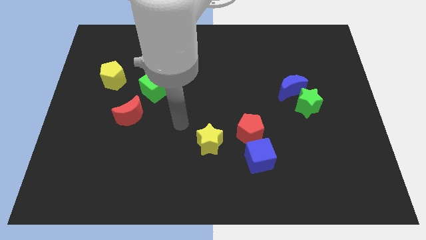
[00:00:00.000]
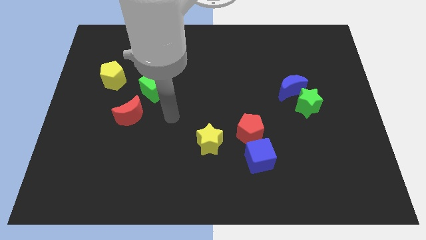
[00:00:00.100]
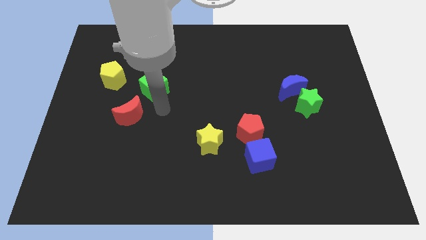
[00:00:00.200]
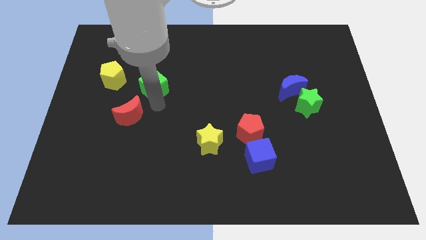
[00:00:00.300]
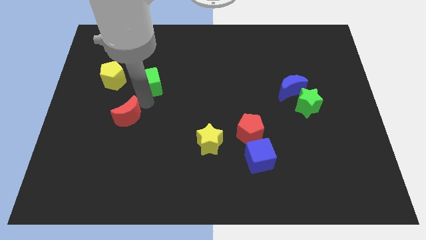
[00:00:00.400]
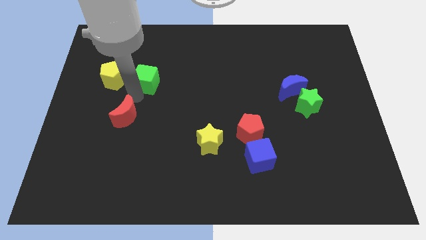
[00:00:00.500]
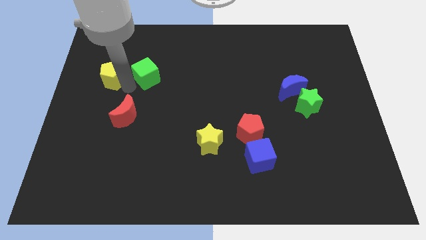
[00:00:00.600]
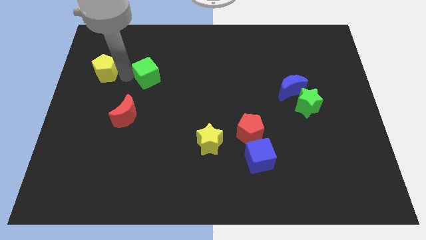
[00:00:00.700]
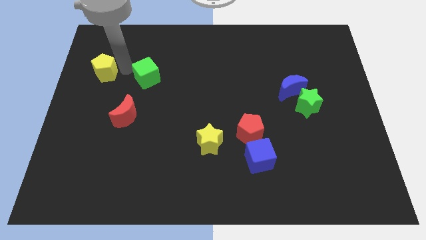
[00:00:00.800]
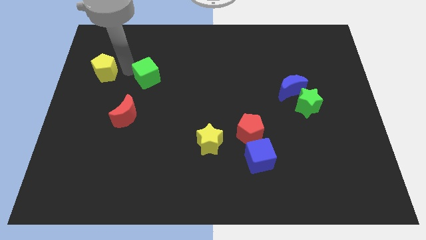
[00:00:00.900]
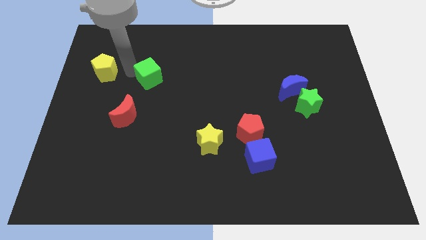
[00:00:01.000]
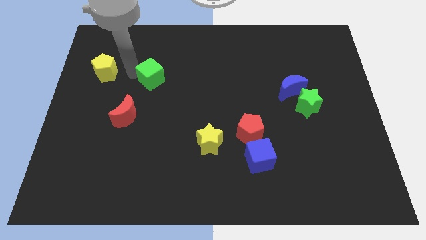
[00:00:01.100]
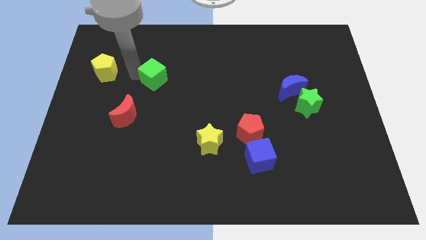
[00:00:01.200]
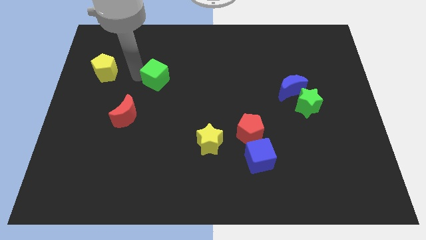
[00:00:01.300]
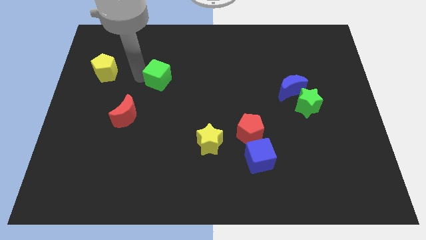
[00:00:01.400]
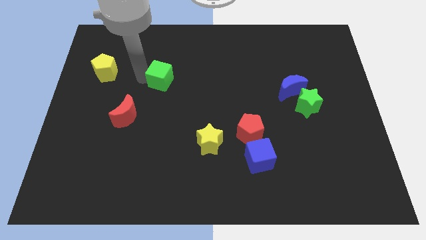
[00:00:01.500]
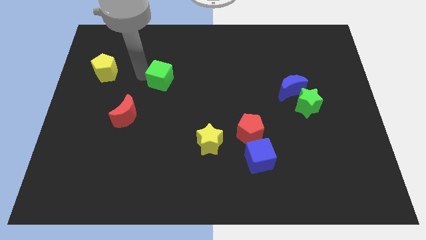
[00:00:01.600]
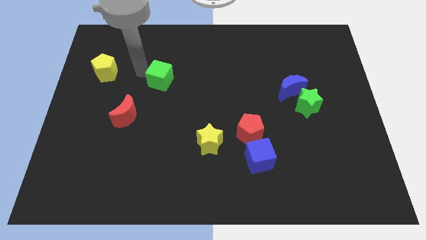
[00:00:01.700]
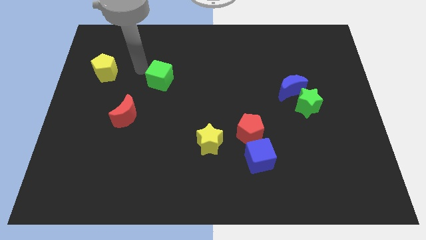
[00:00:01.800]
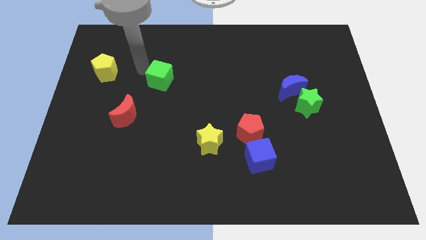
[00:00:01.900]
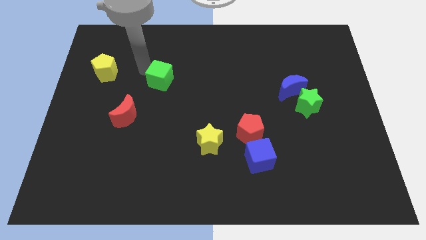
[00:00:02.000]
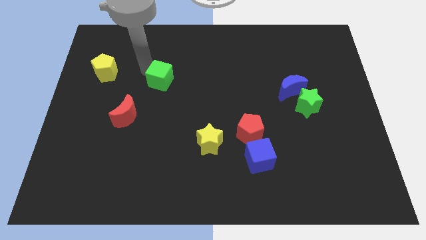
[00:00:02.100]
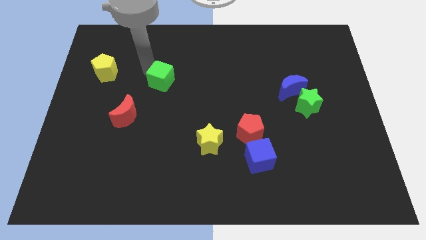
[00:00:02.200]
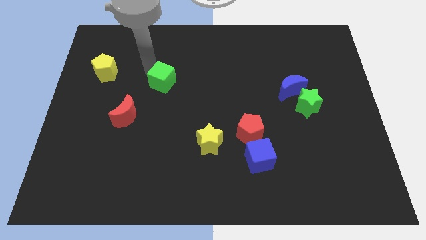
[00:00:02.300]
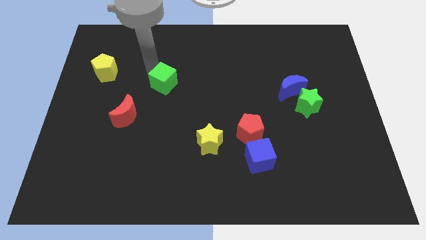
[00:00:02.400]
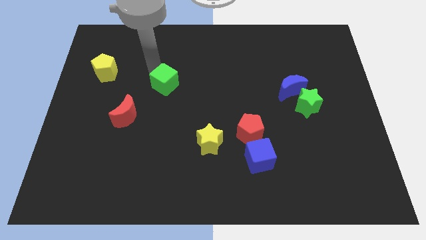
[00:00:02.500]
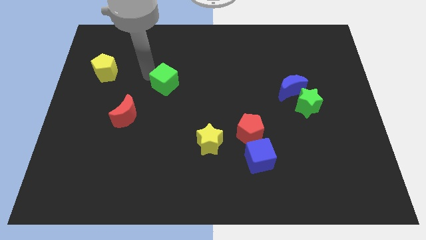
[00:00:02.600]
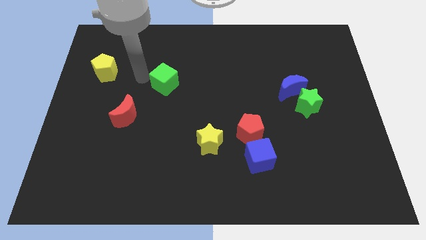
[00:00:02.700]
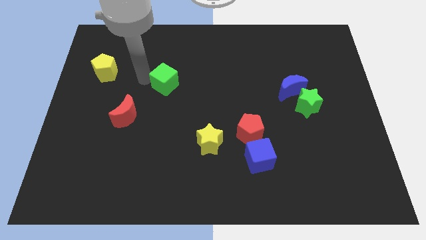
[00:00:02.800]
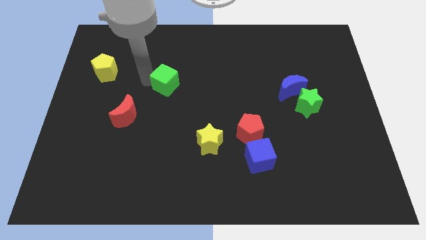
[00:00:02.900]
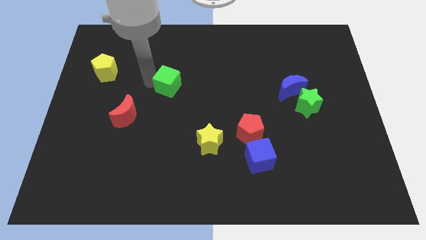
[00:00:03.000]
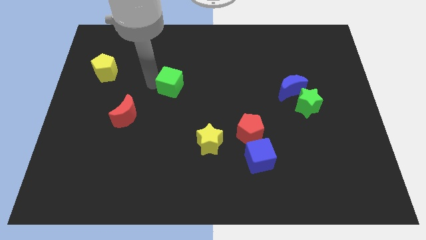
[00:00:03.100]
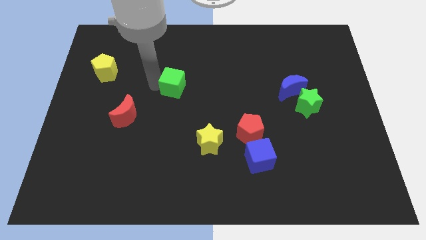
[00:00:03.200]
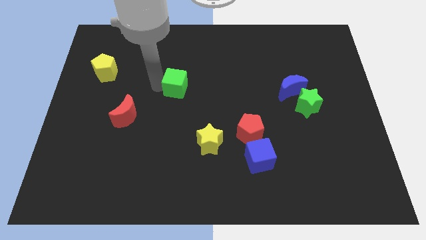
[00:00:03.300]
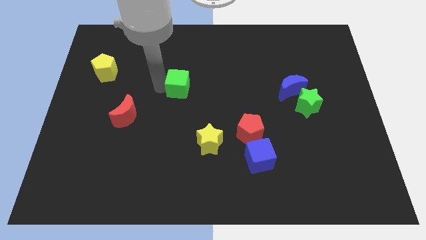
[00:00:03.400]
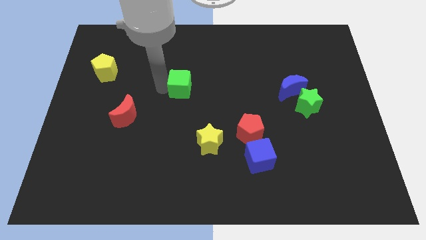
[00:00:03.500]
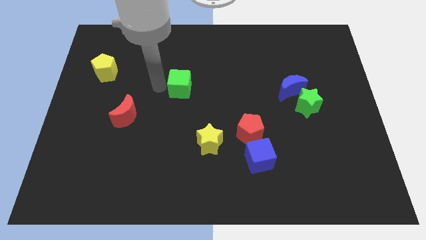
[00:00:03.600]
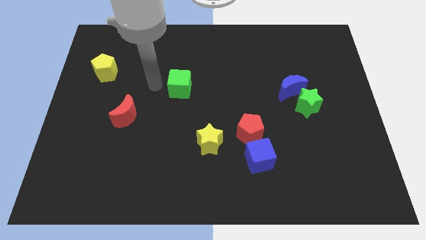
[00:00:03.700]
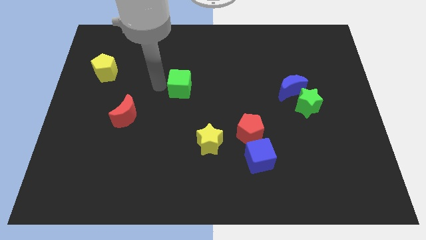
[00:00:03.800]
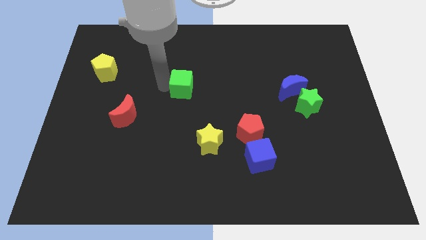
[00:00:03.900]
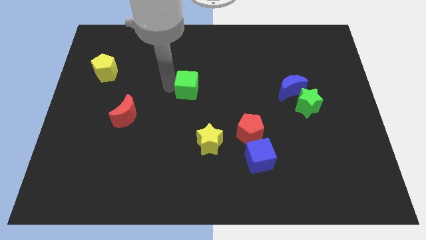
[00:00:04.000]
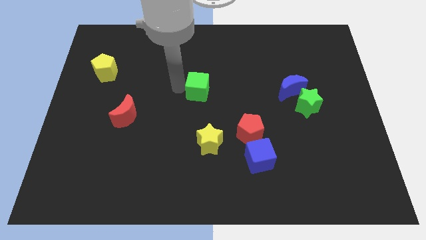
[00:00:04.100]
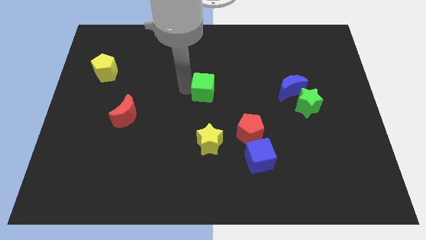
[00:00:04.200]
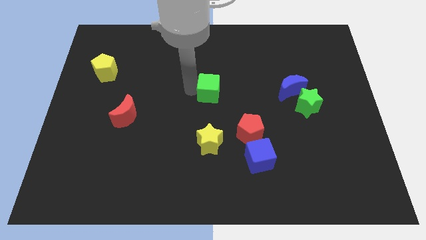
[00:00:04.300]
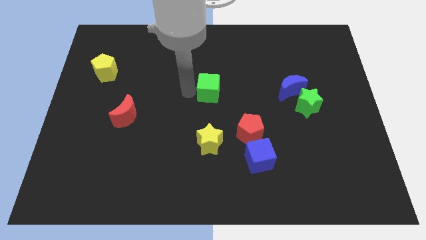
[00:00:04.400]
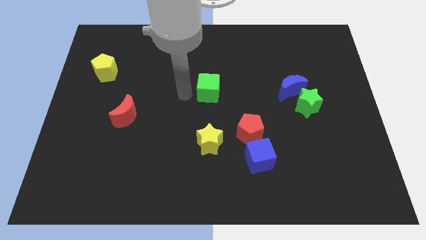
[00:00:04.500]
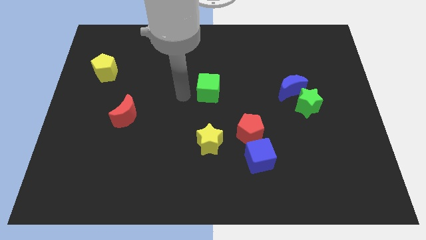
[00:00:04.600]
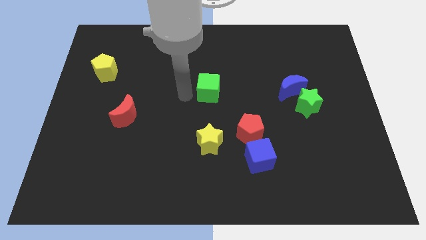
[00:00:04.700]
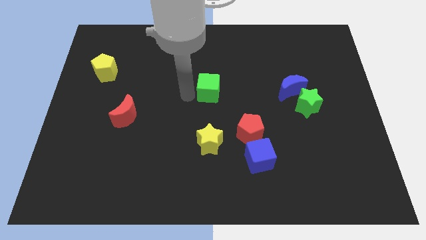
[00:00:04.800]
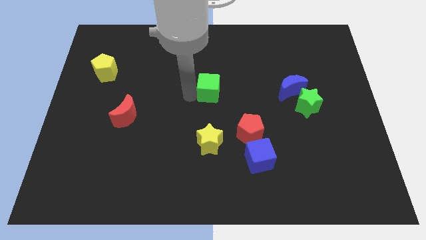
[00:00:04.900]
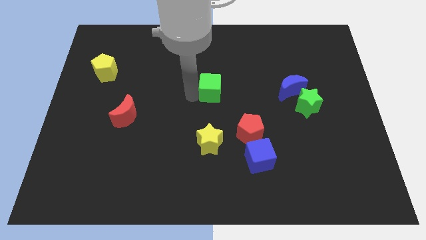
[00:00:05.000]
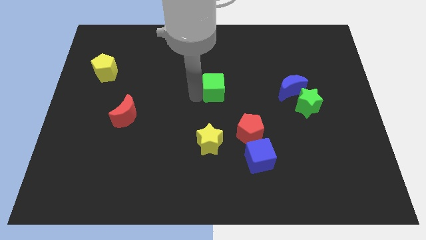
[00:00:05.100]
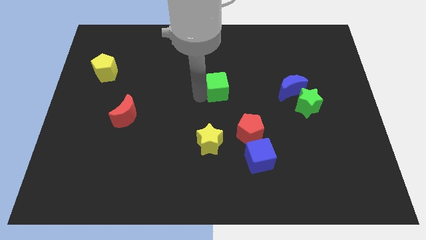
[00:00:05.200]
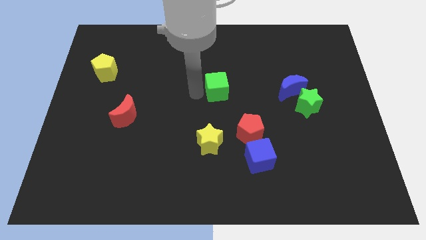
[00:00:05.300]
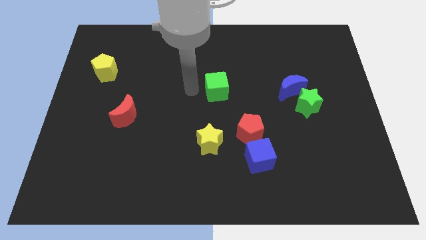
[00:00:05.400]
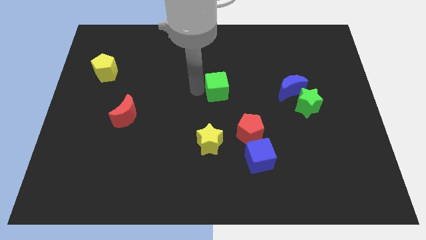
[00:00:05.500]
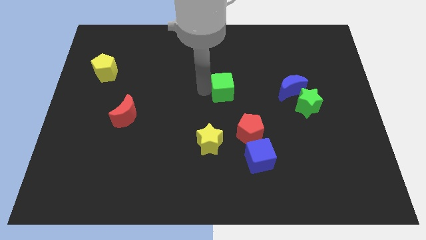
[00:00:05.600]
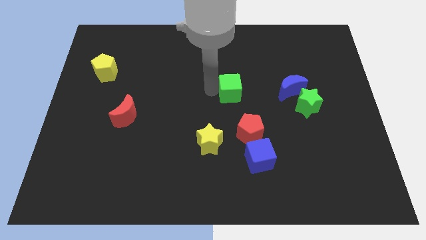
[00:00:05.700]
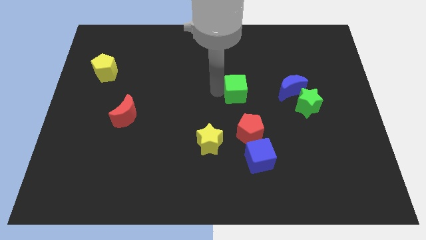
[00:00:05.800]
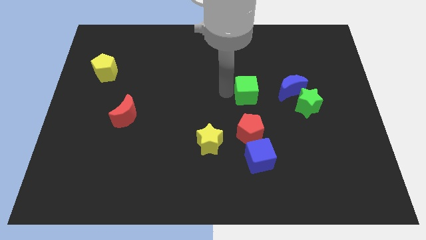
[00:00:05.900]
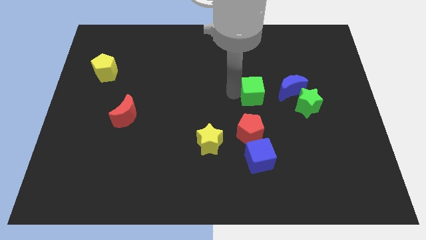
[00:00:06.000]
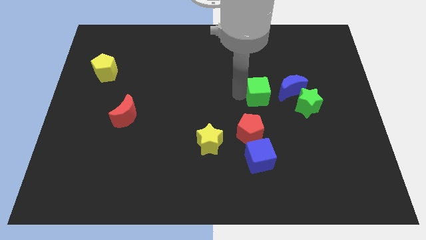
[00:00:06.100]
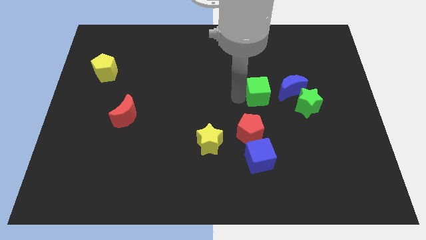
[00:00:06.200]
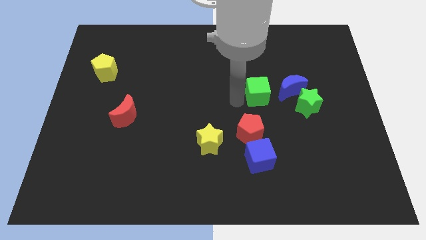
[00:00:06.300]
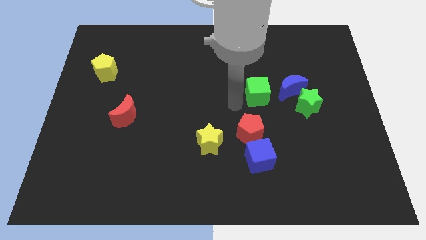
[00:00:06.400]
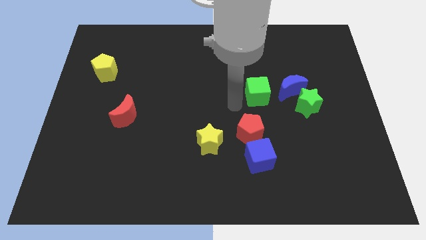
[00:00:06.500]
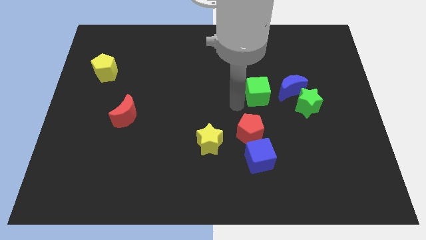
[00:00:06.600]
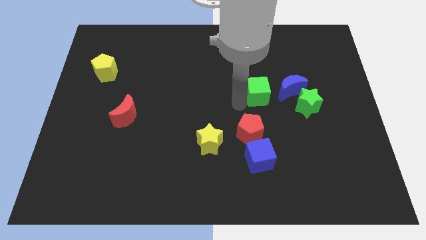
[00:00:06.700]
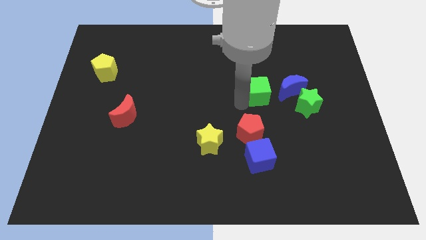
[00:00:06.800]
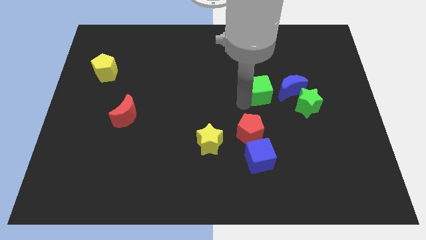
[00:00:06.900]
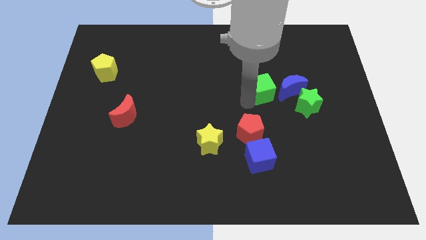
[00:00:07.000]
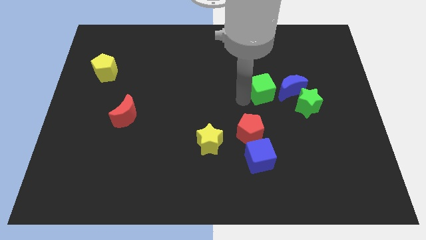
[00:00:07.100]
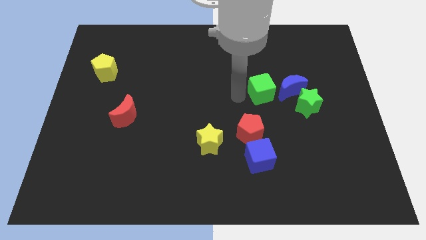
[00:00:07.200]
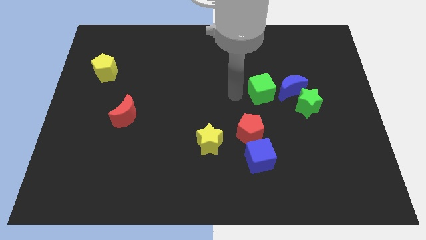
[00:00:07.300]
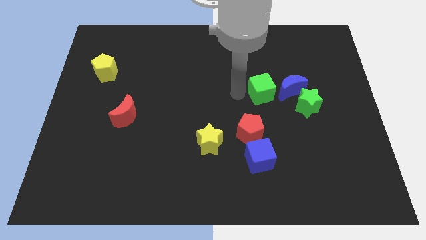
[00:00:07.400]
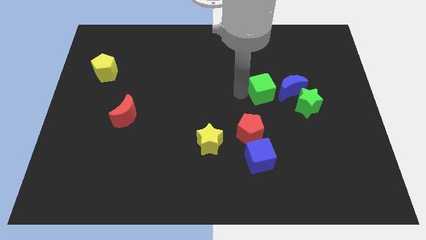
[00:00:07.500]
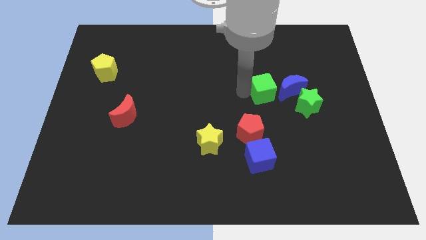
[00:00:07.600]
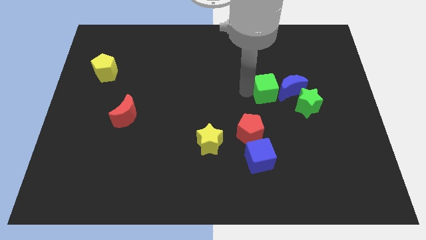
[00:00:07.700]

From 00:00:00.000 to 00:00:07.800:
put the green cube next to the blue moon
